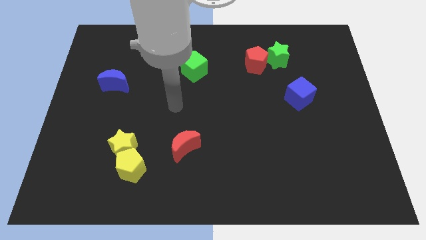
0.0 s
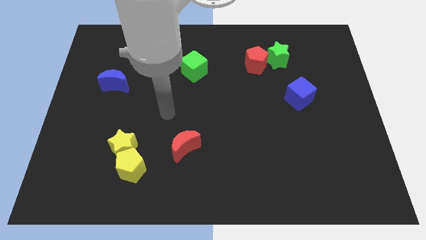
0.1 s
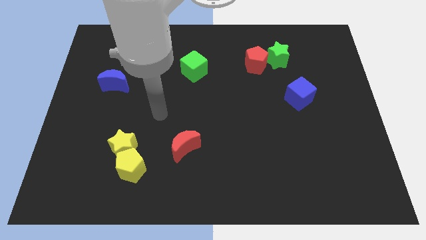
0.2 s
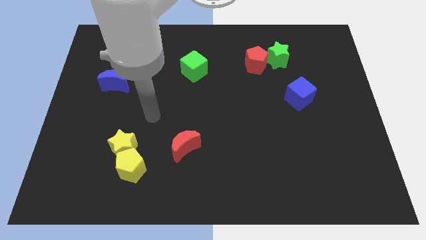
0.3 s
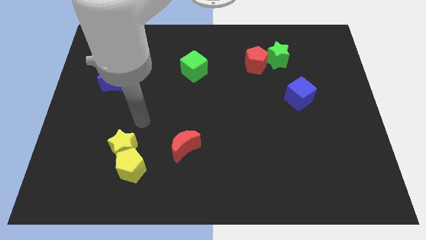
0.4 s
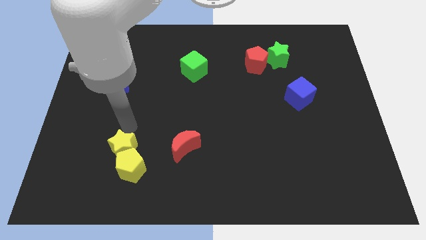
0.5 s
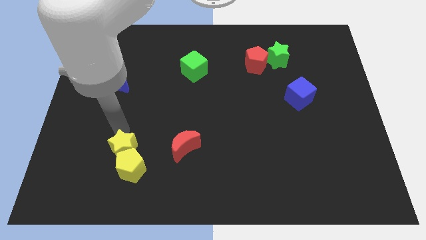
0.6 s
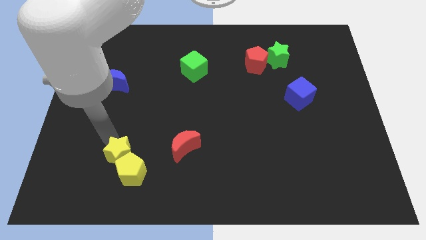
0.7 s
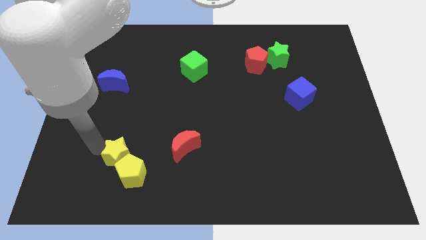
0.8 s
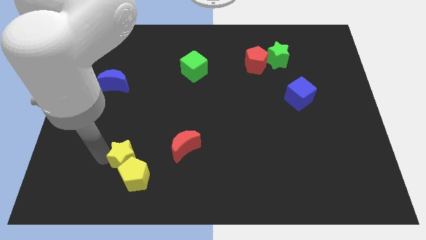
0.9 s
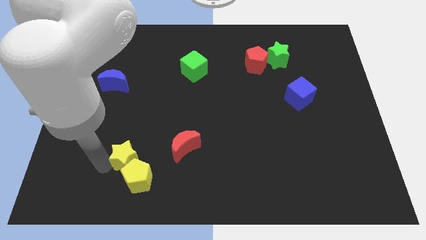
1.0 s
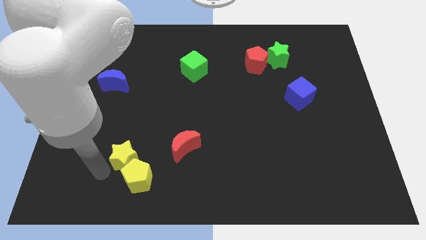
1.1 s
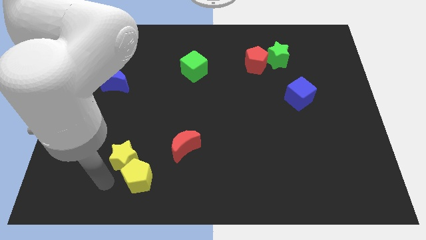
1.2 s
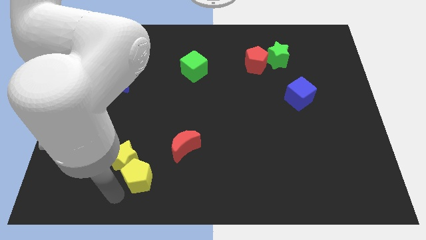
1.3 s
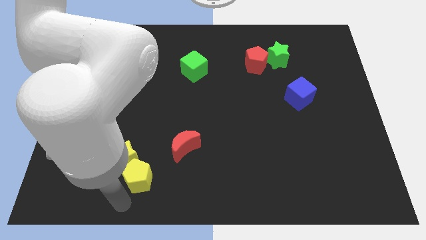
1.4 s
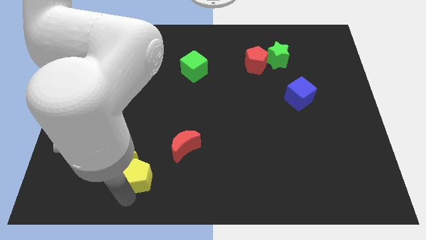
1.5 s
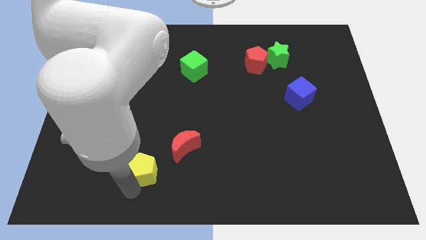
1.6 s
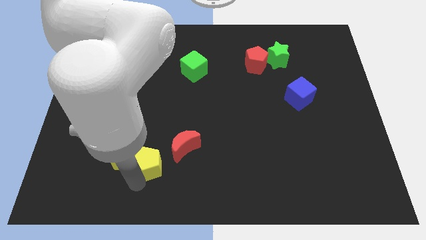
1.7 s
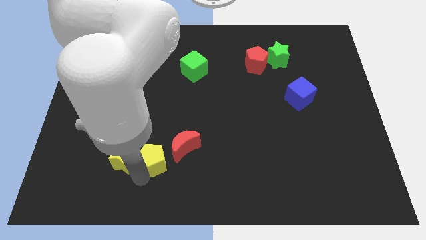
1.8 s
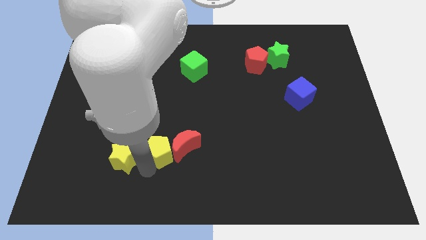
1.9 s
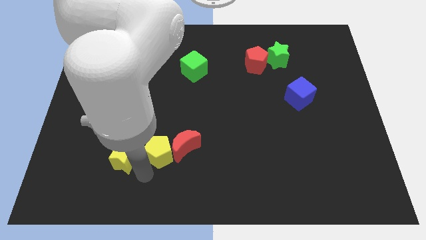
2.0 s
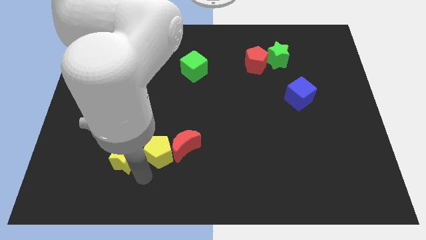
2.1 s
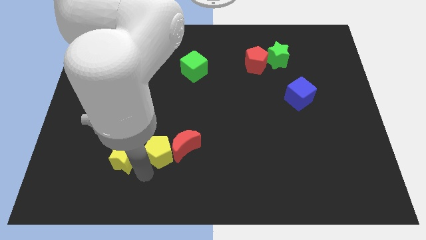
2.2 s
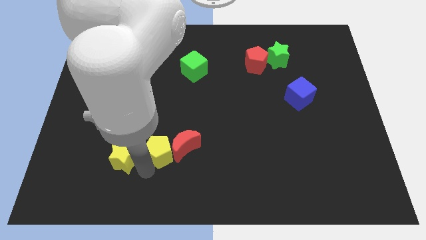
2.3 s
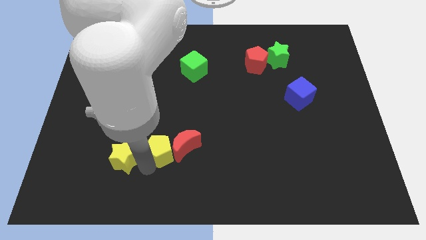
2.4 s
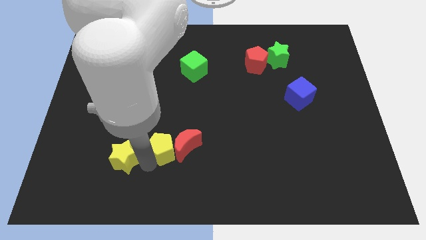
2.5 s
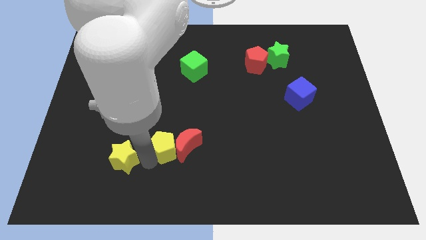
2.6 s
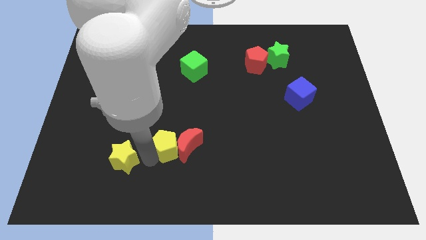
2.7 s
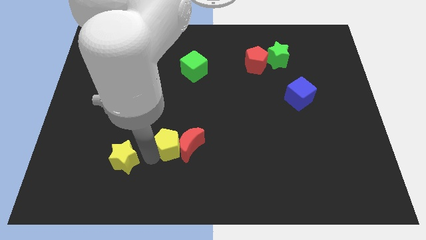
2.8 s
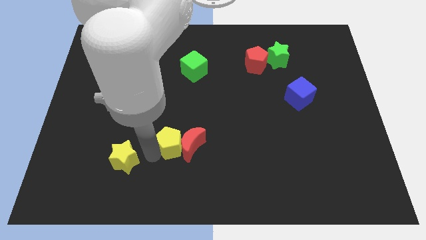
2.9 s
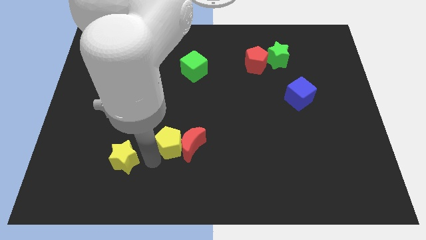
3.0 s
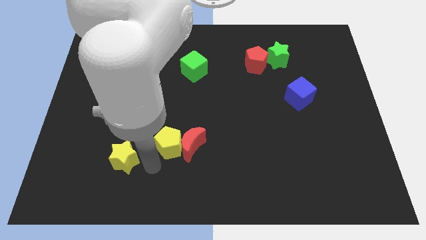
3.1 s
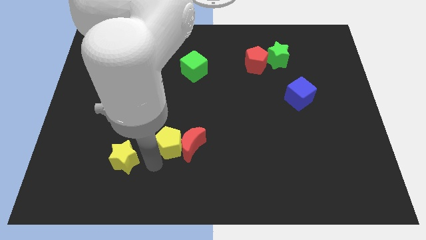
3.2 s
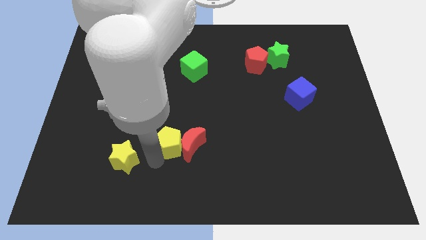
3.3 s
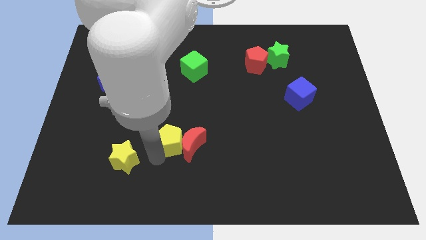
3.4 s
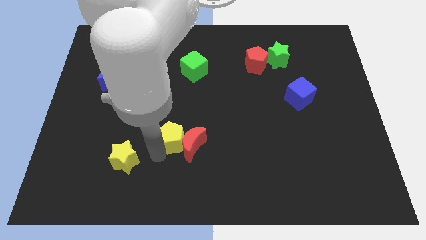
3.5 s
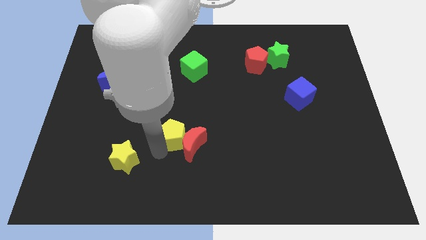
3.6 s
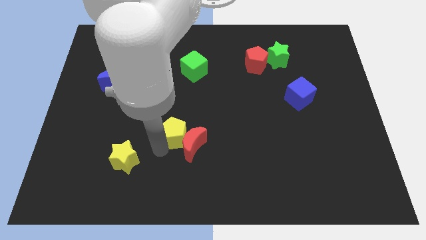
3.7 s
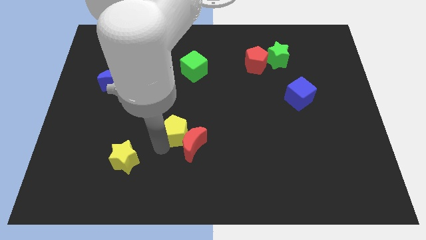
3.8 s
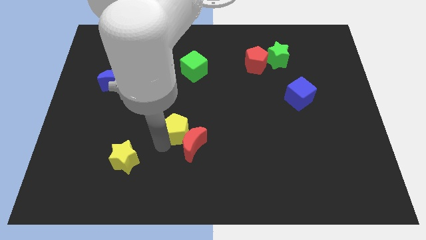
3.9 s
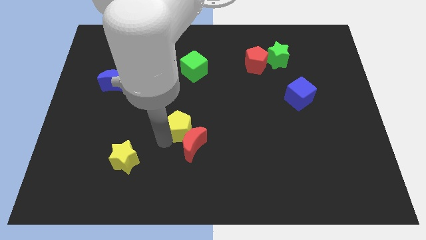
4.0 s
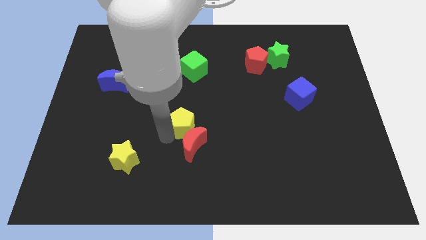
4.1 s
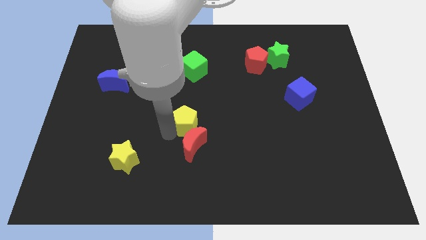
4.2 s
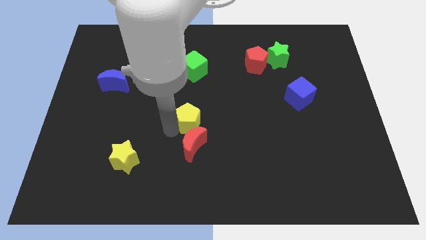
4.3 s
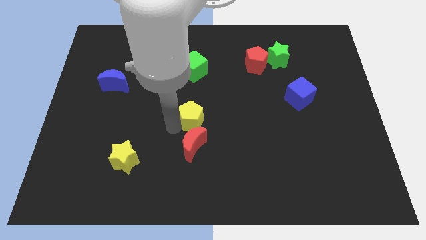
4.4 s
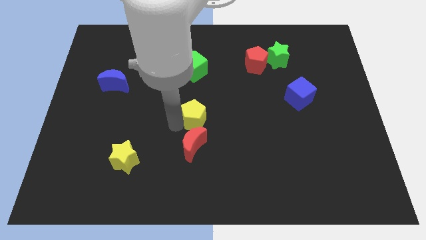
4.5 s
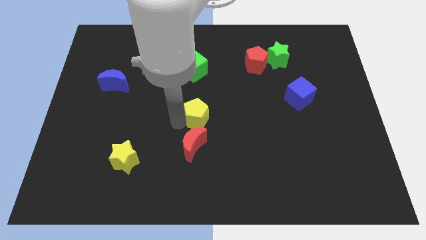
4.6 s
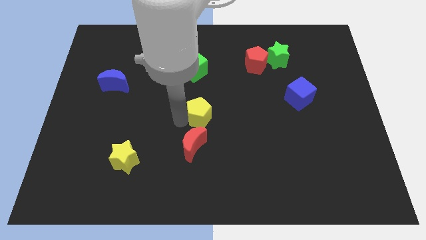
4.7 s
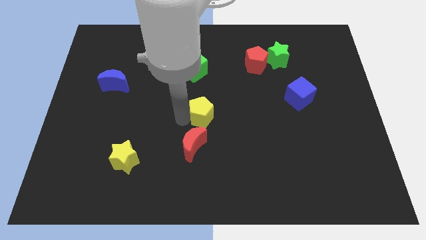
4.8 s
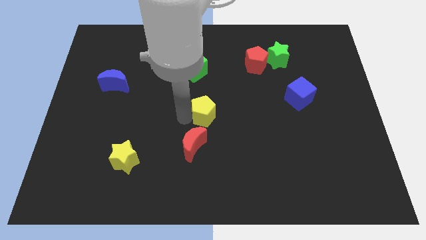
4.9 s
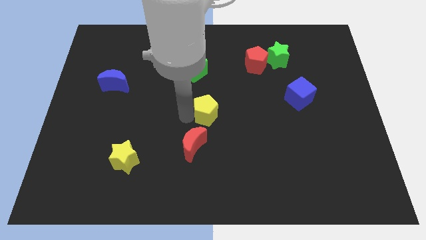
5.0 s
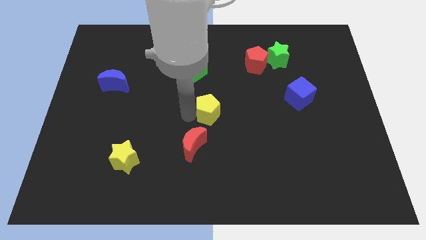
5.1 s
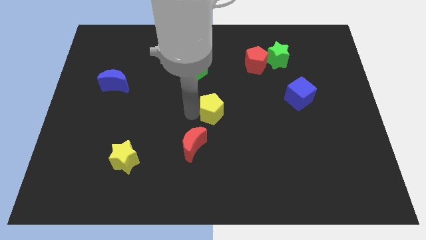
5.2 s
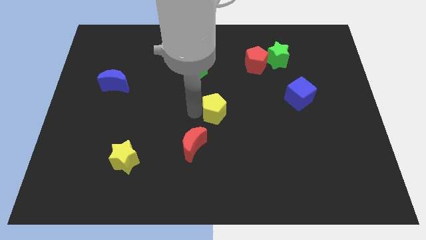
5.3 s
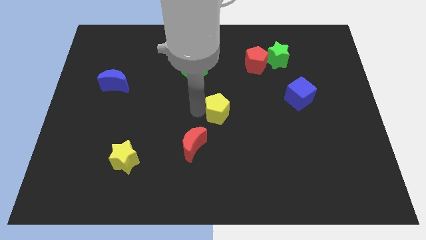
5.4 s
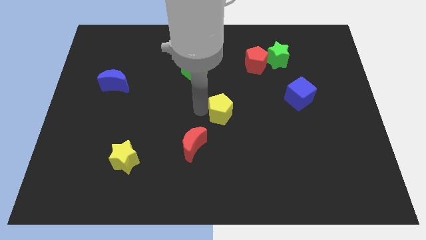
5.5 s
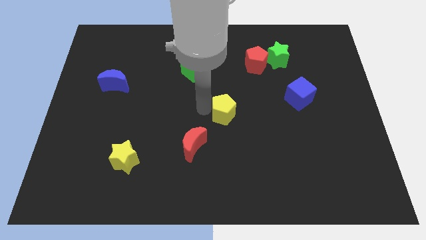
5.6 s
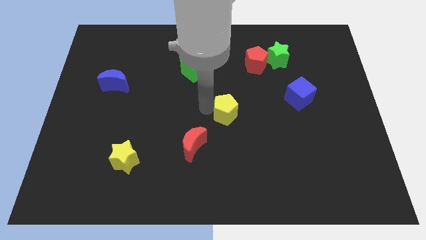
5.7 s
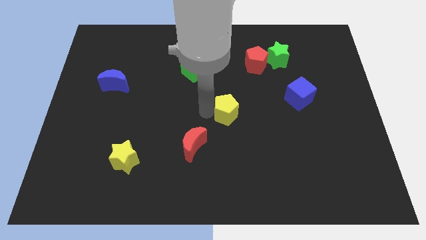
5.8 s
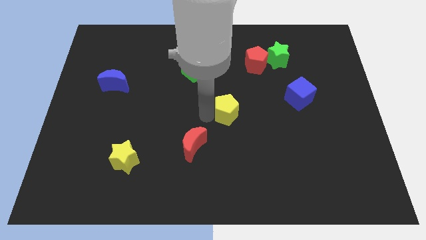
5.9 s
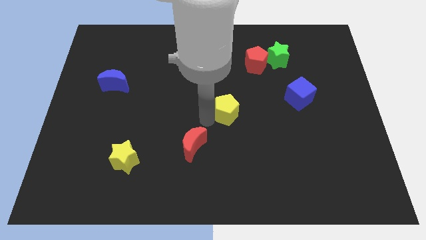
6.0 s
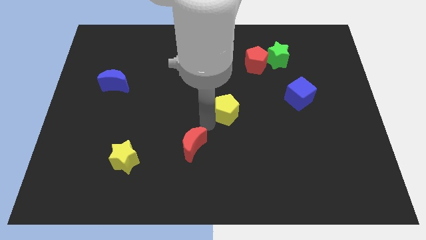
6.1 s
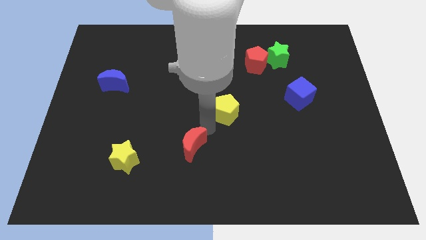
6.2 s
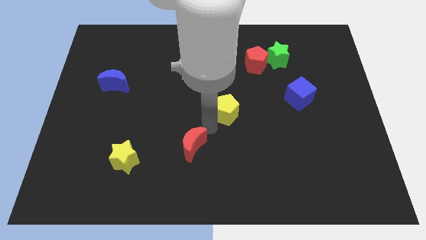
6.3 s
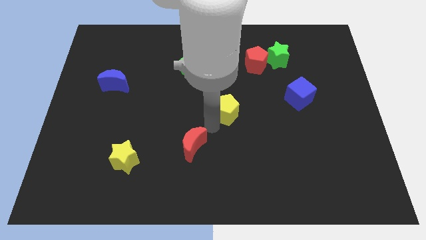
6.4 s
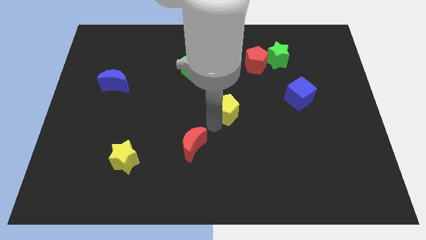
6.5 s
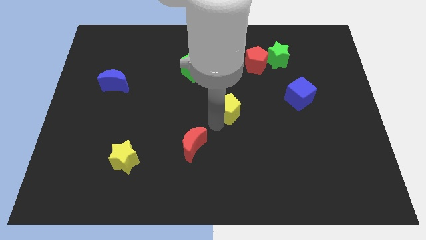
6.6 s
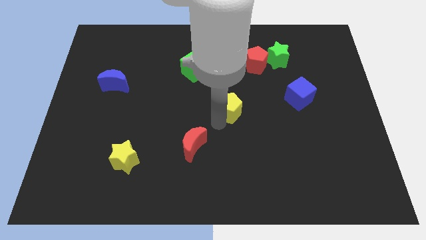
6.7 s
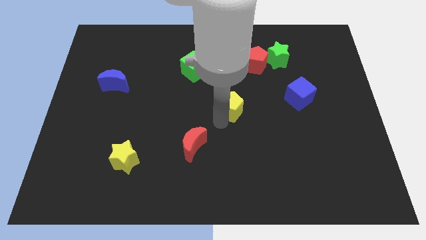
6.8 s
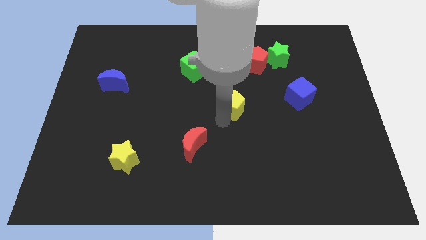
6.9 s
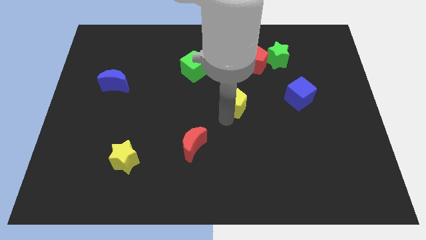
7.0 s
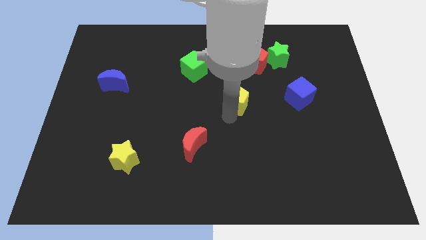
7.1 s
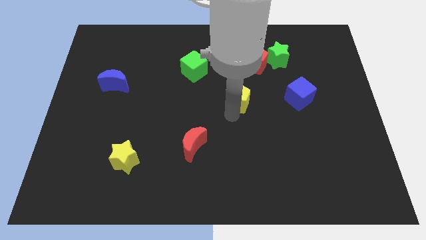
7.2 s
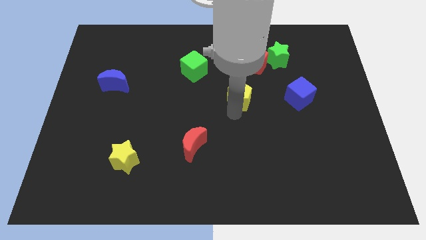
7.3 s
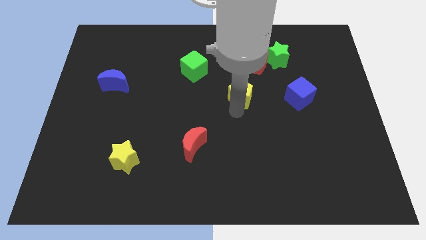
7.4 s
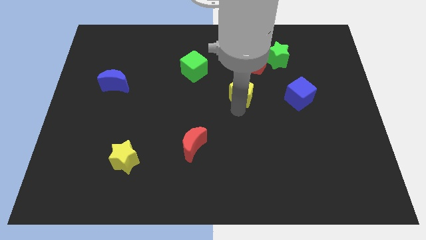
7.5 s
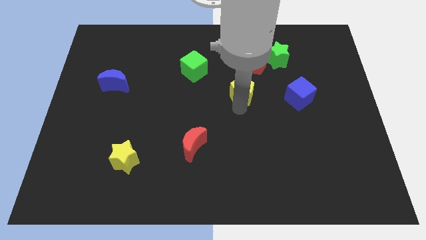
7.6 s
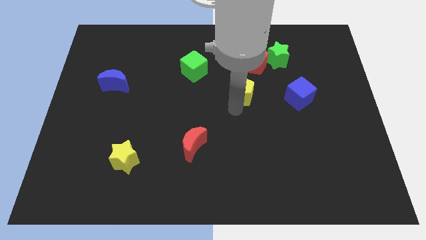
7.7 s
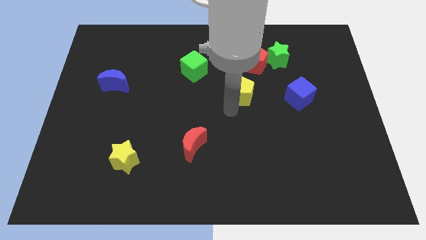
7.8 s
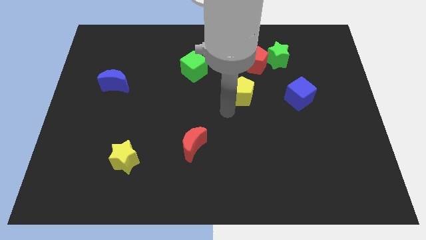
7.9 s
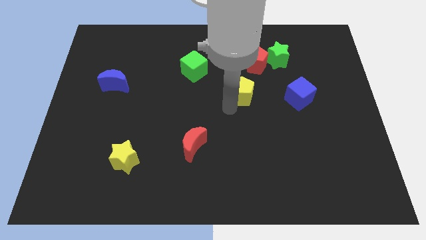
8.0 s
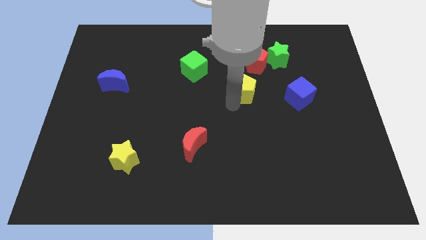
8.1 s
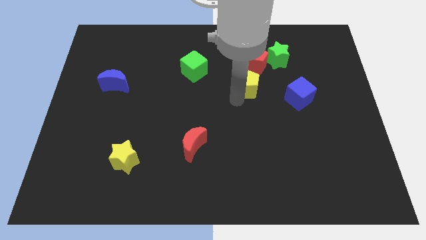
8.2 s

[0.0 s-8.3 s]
slide the yellow pentagon to the bottom left side of the green star
